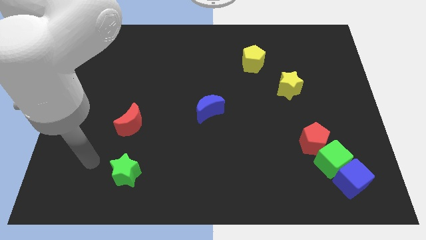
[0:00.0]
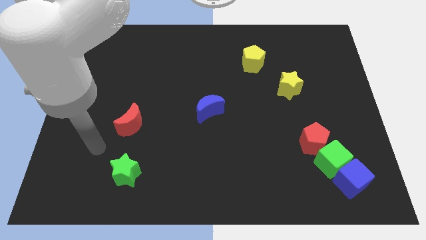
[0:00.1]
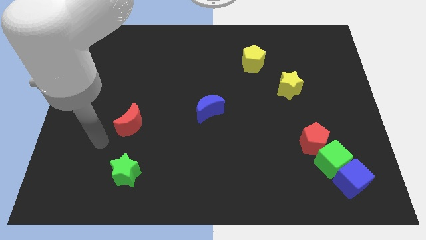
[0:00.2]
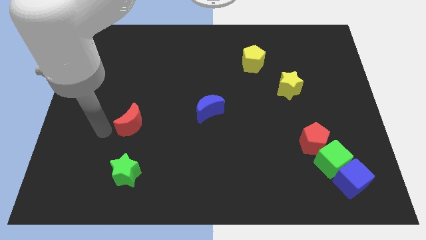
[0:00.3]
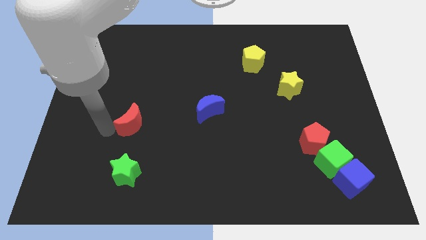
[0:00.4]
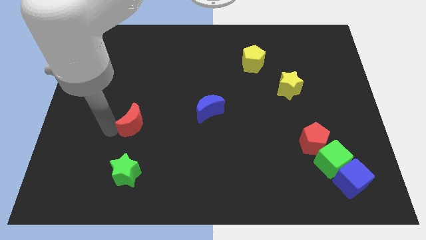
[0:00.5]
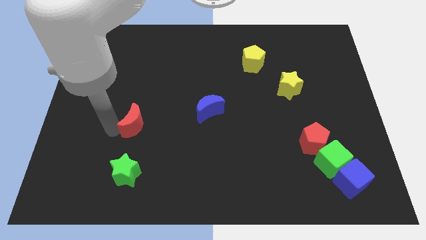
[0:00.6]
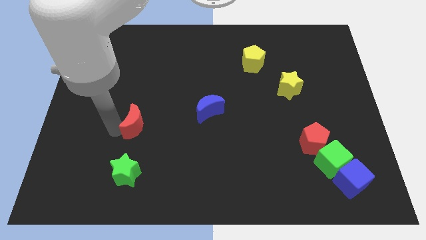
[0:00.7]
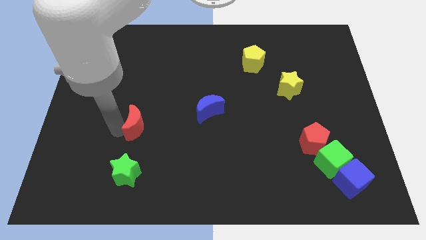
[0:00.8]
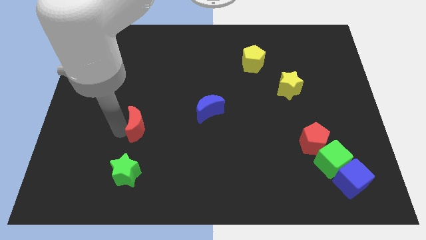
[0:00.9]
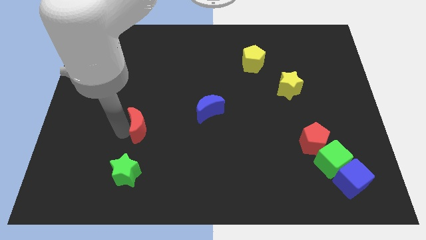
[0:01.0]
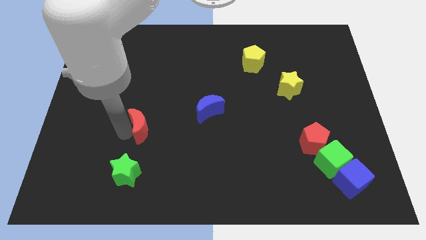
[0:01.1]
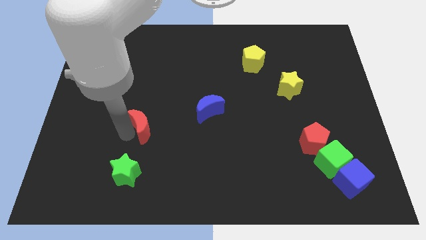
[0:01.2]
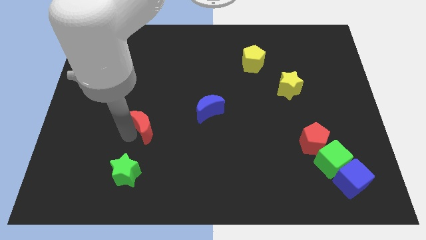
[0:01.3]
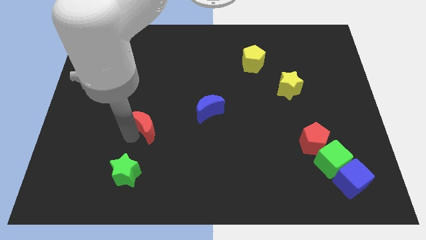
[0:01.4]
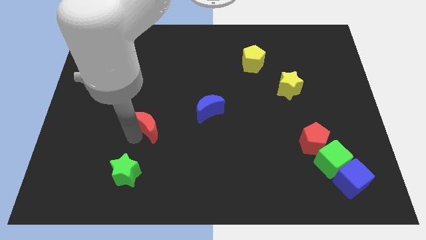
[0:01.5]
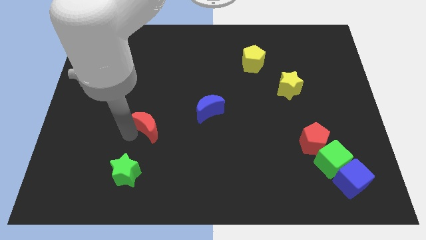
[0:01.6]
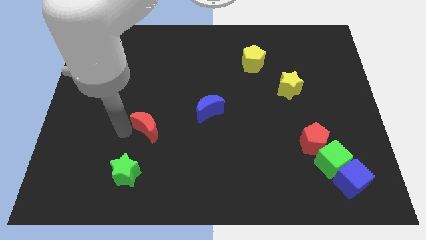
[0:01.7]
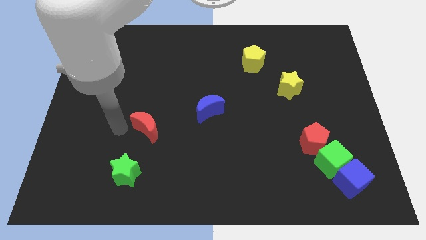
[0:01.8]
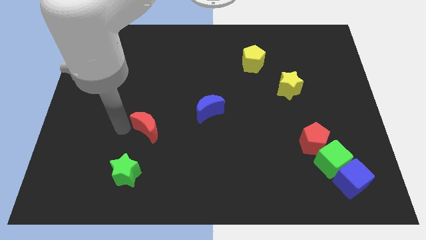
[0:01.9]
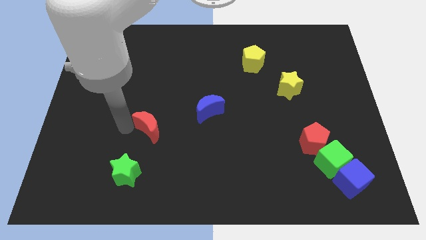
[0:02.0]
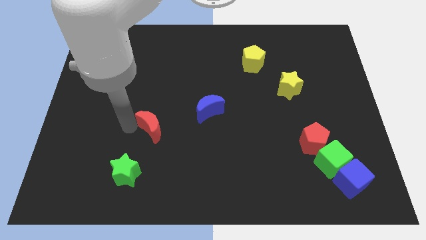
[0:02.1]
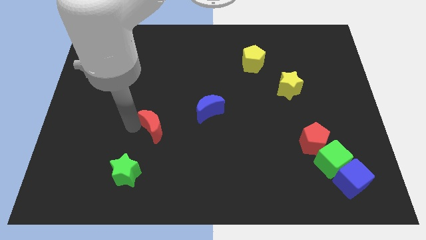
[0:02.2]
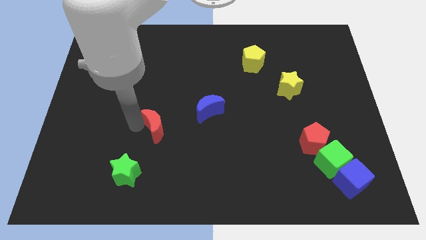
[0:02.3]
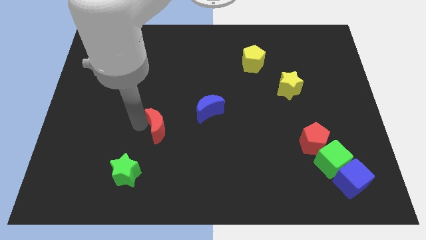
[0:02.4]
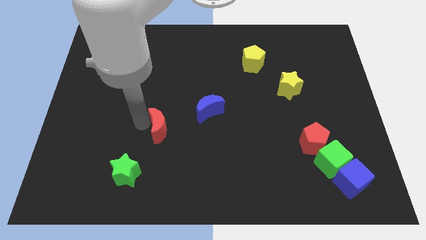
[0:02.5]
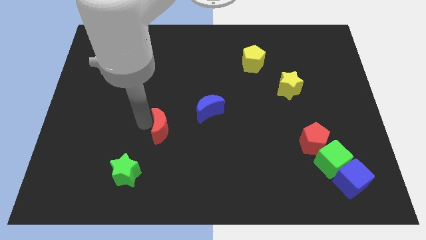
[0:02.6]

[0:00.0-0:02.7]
move the red moon slightly right

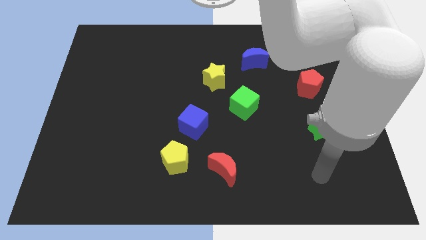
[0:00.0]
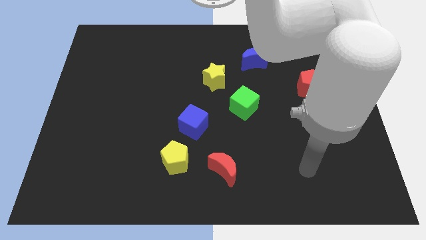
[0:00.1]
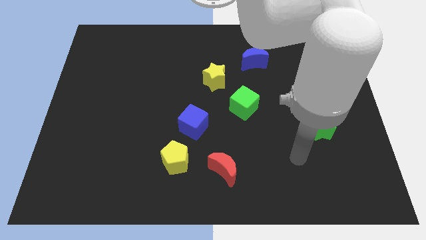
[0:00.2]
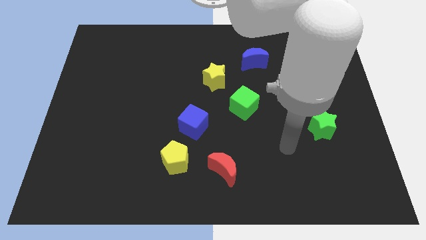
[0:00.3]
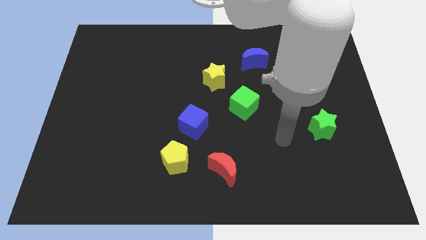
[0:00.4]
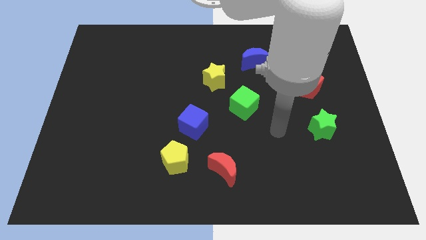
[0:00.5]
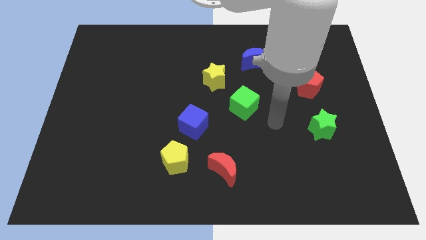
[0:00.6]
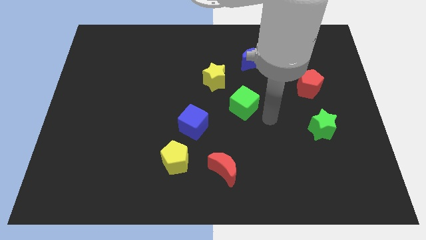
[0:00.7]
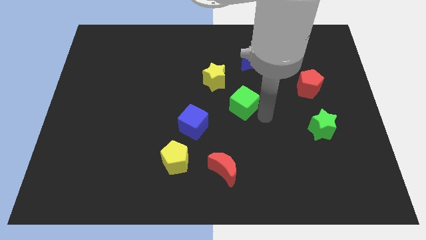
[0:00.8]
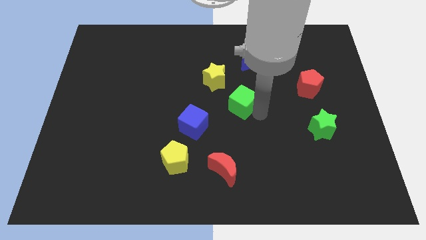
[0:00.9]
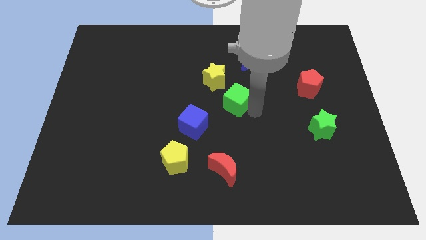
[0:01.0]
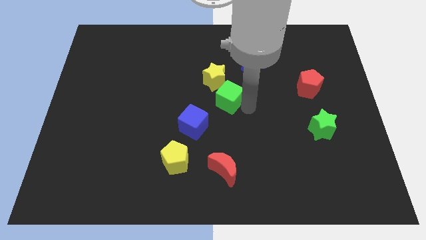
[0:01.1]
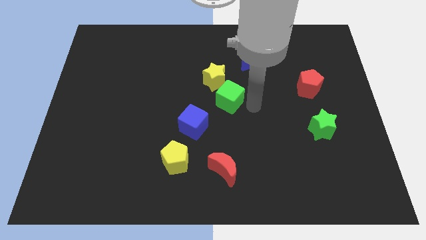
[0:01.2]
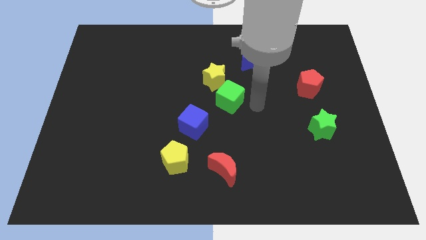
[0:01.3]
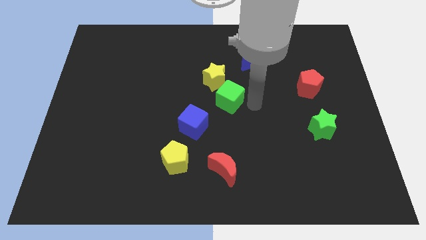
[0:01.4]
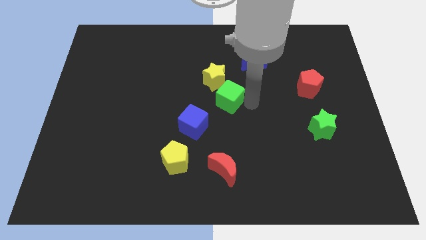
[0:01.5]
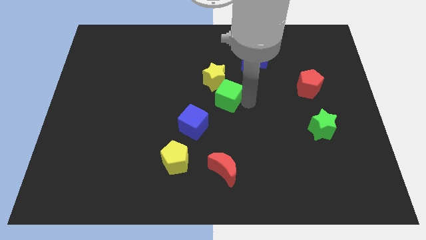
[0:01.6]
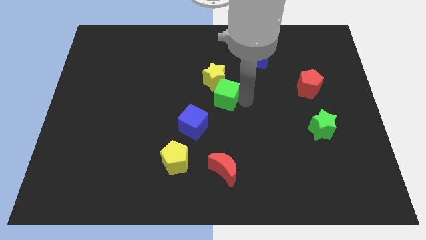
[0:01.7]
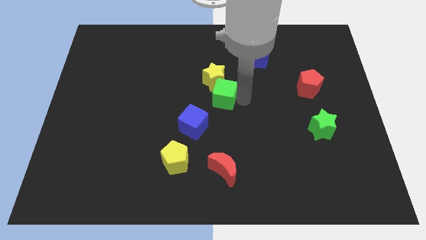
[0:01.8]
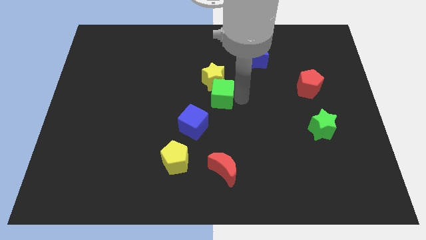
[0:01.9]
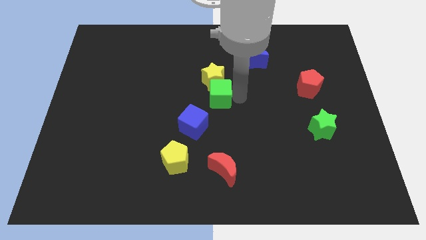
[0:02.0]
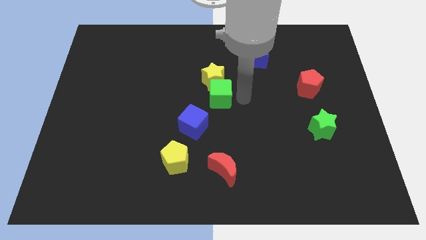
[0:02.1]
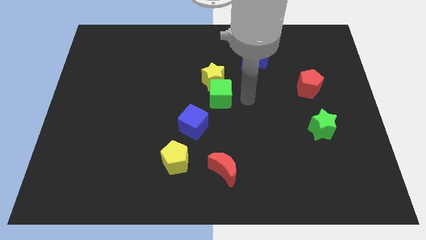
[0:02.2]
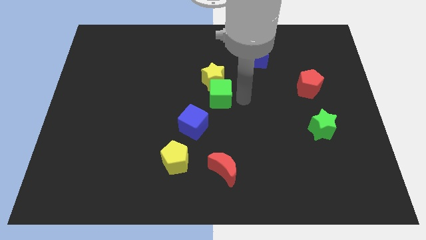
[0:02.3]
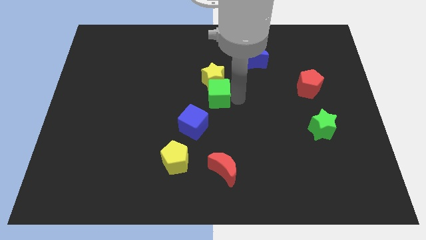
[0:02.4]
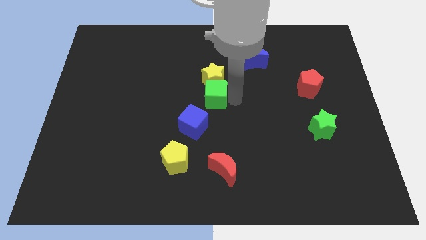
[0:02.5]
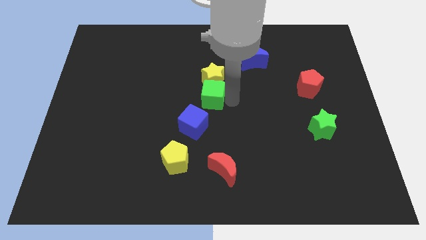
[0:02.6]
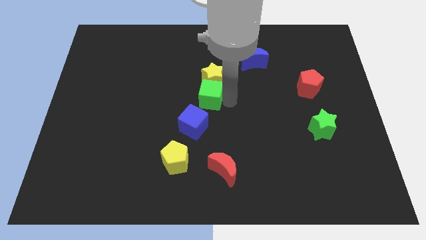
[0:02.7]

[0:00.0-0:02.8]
slide the green cube up and then left a little

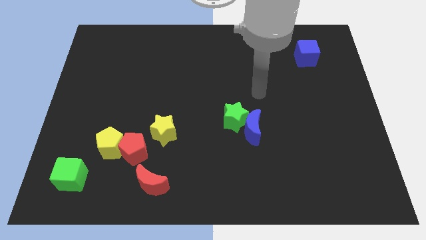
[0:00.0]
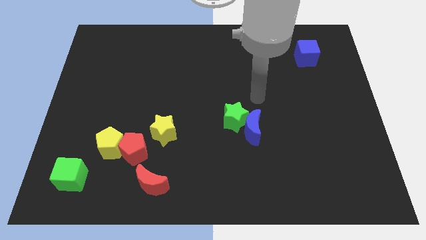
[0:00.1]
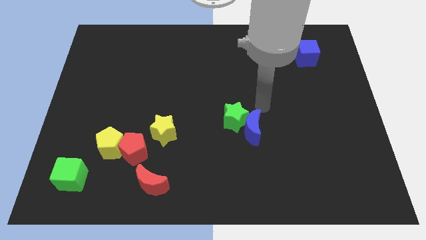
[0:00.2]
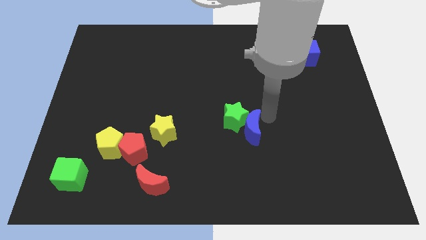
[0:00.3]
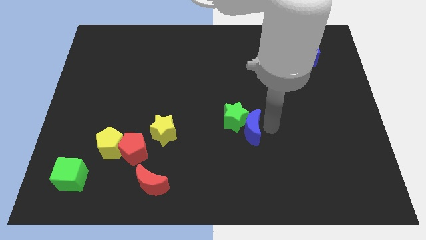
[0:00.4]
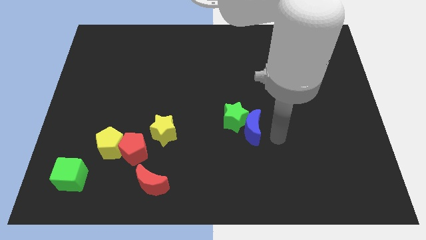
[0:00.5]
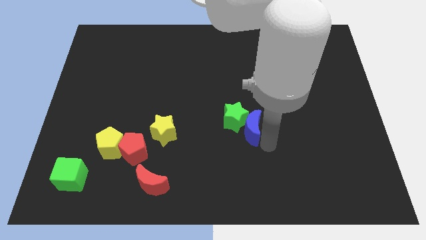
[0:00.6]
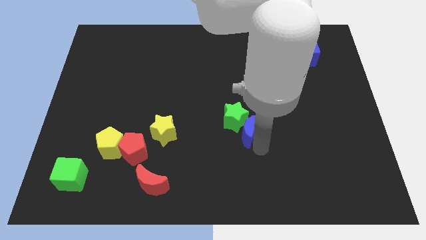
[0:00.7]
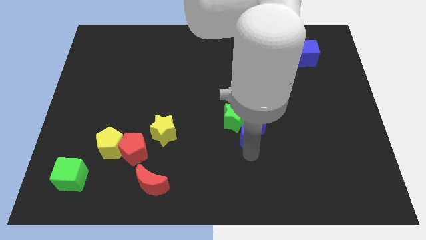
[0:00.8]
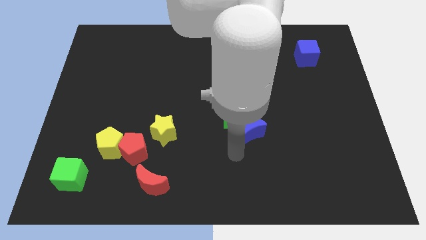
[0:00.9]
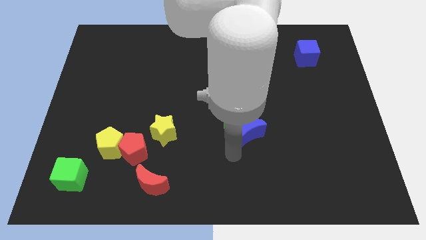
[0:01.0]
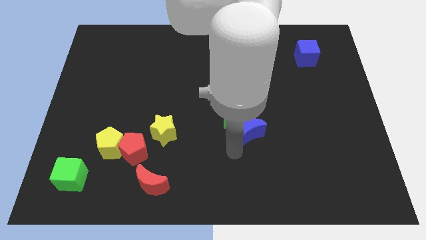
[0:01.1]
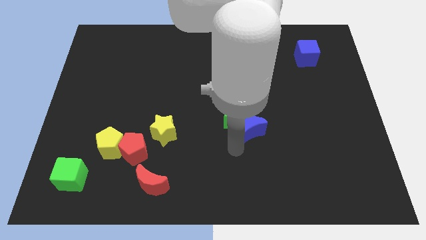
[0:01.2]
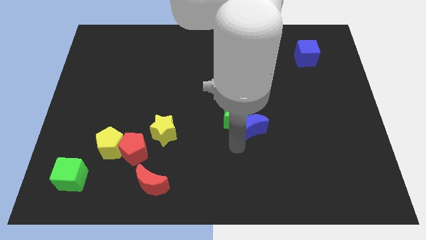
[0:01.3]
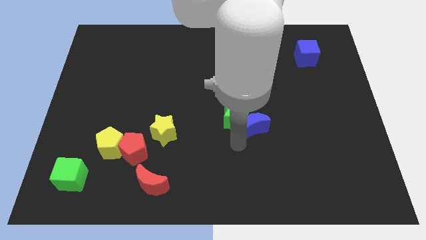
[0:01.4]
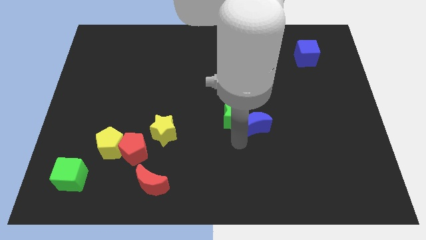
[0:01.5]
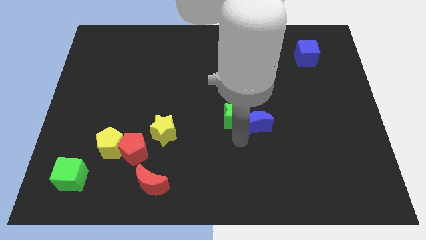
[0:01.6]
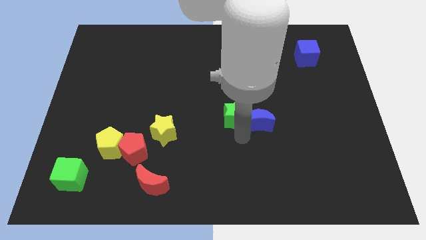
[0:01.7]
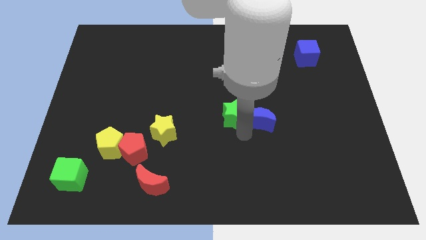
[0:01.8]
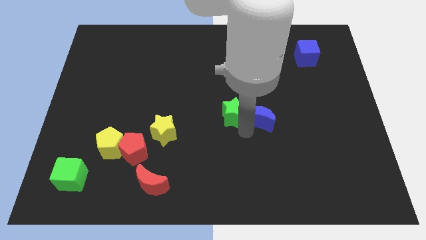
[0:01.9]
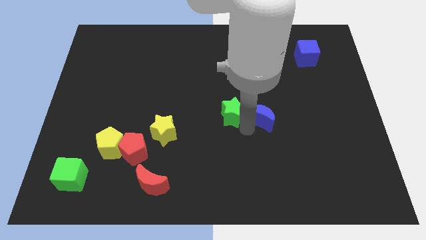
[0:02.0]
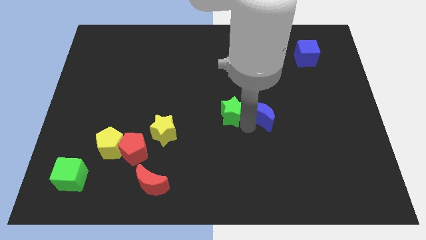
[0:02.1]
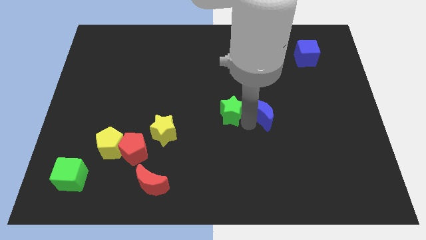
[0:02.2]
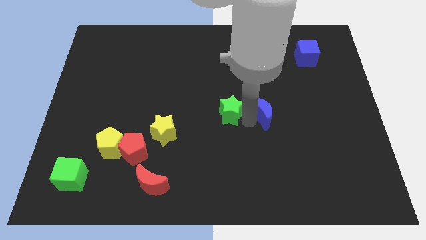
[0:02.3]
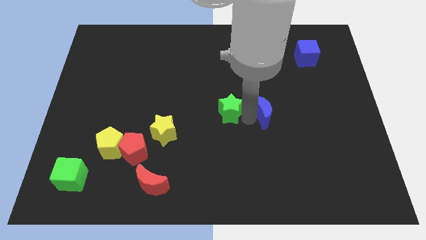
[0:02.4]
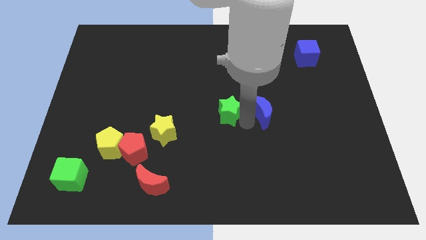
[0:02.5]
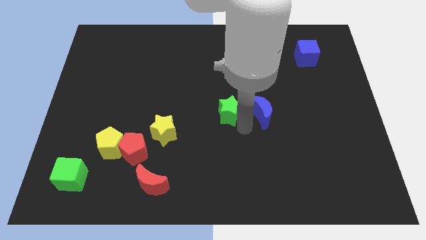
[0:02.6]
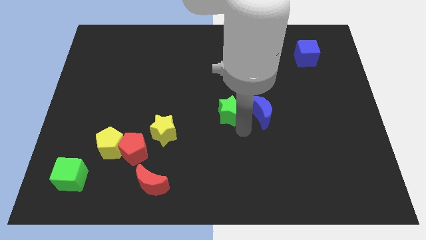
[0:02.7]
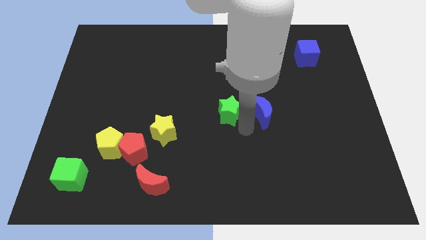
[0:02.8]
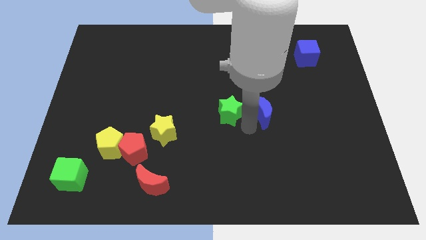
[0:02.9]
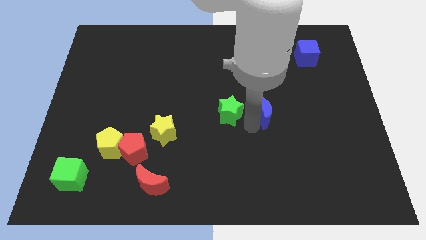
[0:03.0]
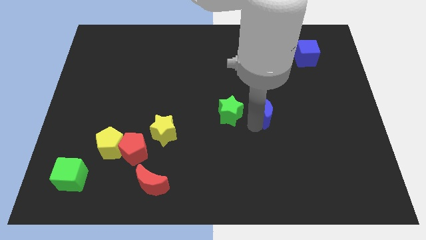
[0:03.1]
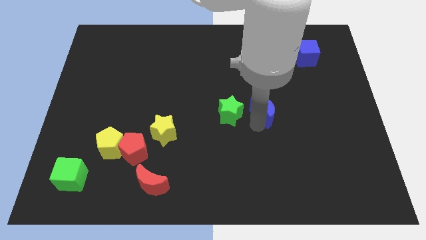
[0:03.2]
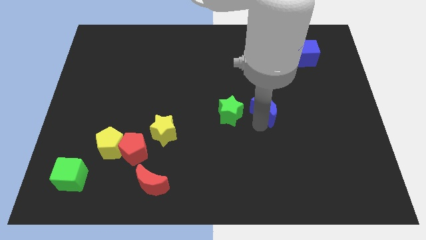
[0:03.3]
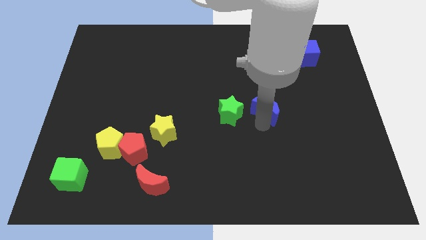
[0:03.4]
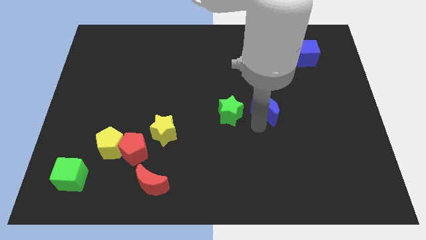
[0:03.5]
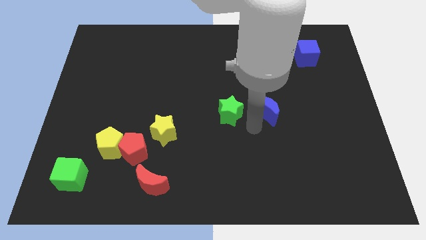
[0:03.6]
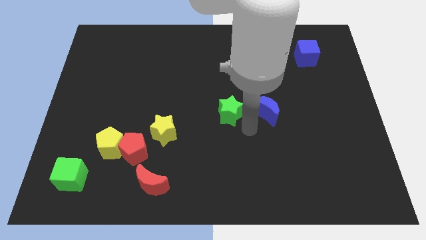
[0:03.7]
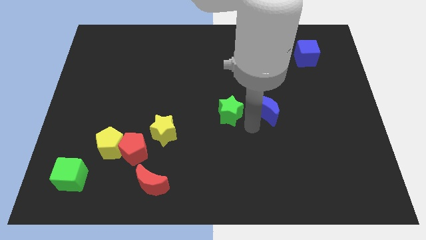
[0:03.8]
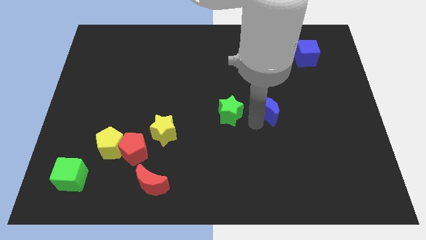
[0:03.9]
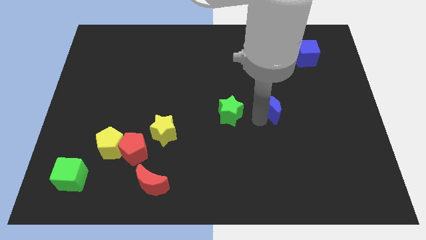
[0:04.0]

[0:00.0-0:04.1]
move the blue moon somewhat up and then to the right
